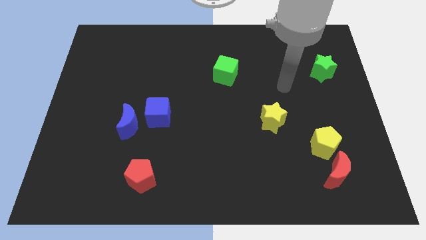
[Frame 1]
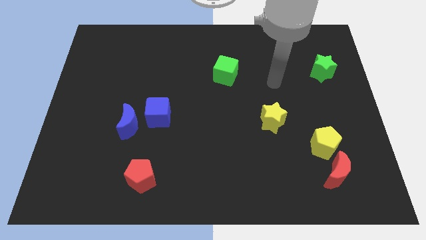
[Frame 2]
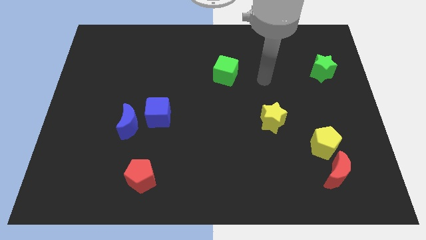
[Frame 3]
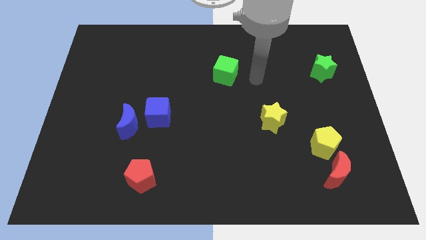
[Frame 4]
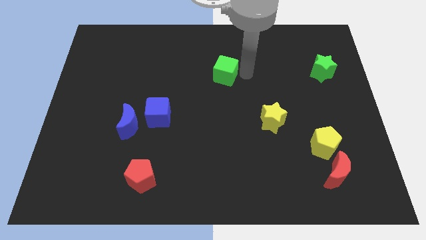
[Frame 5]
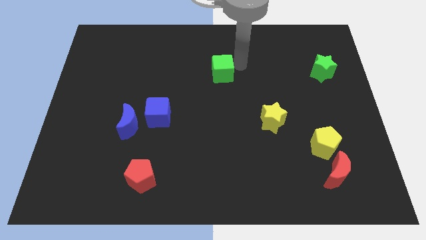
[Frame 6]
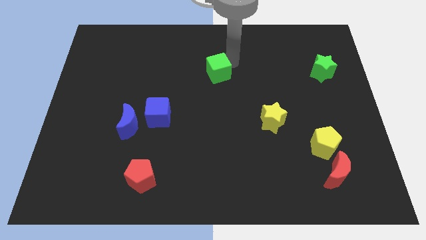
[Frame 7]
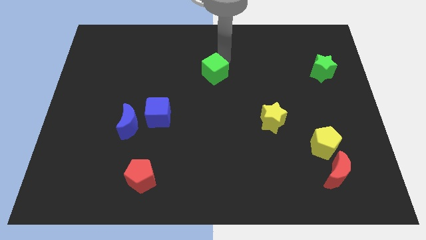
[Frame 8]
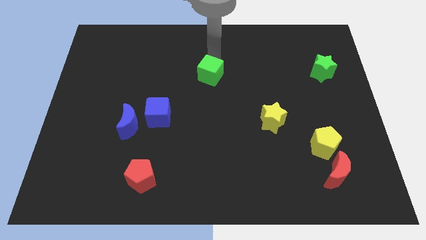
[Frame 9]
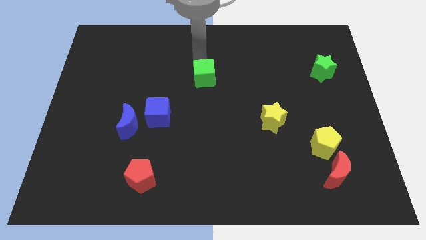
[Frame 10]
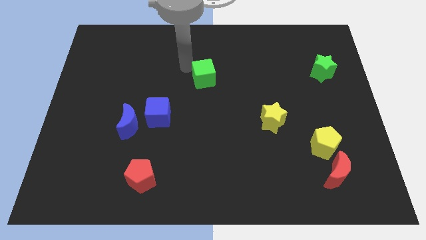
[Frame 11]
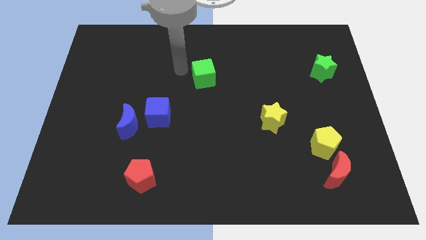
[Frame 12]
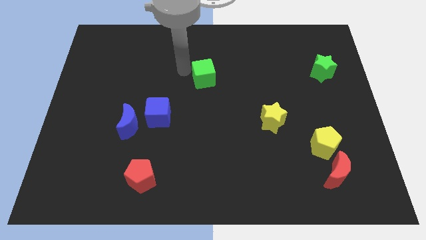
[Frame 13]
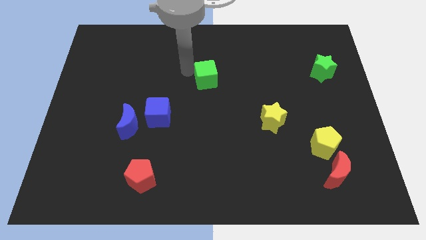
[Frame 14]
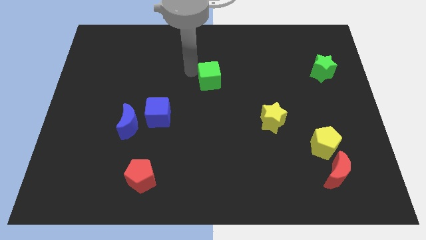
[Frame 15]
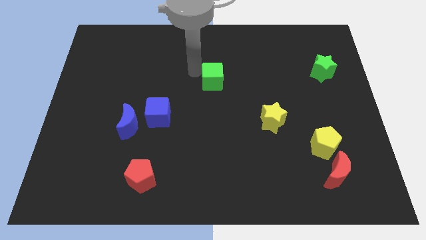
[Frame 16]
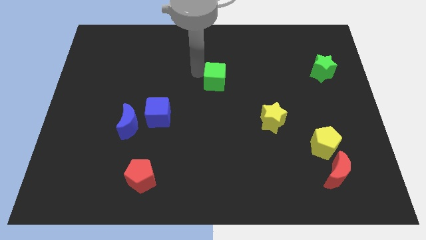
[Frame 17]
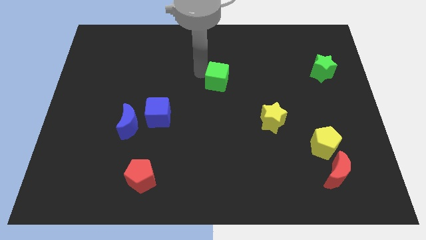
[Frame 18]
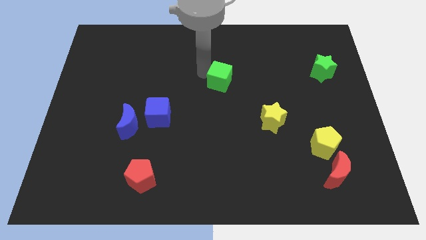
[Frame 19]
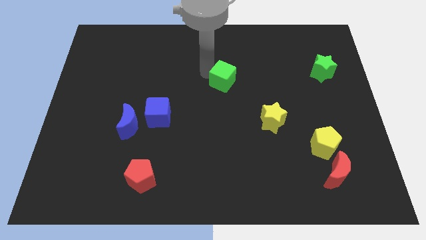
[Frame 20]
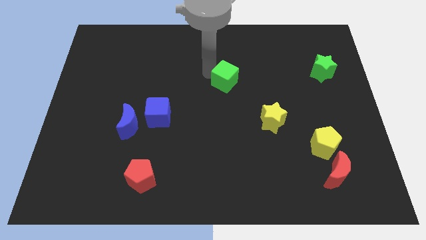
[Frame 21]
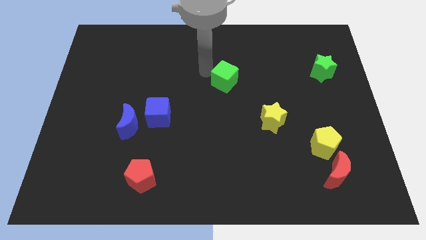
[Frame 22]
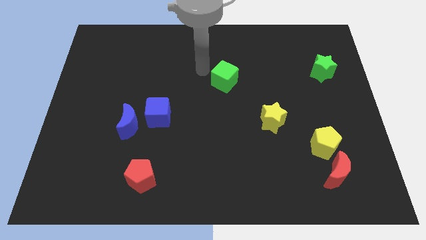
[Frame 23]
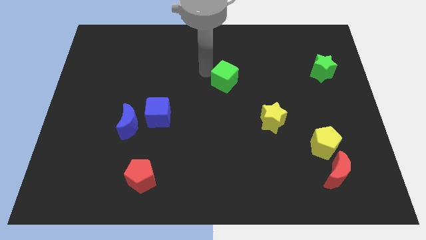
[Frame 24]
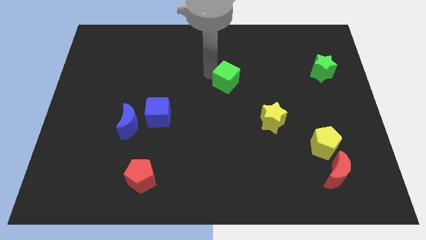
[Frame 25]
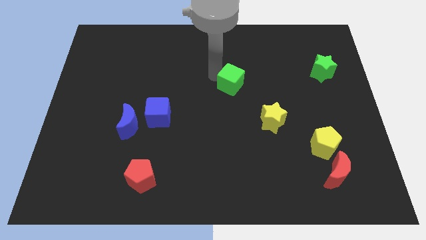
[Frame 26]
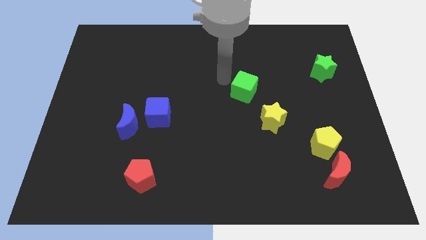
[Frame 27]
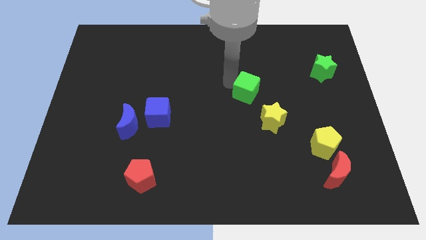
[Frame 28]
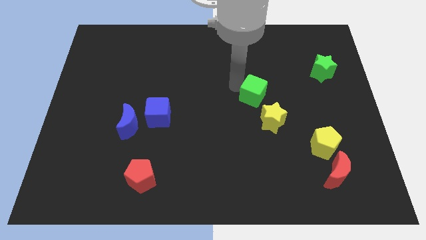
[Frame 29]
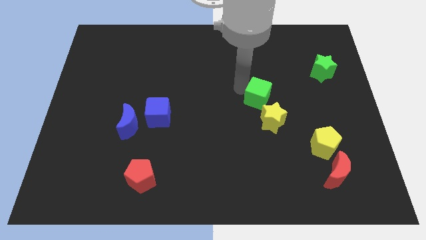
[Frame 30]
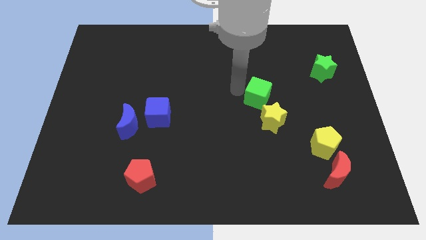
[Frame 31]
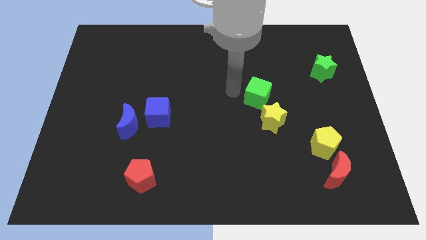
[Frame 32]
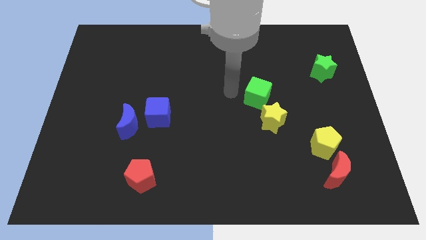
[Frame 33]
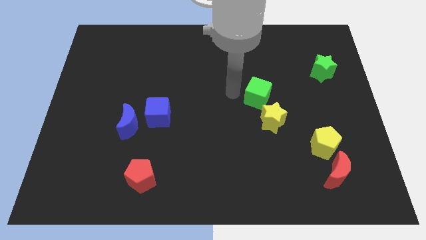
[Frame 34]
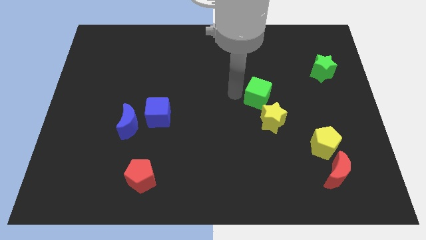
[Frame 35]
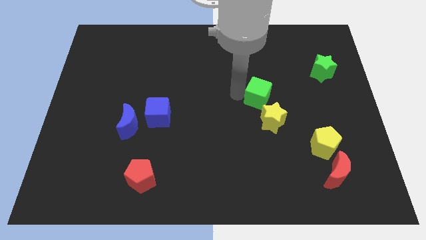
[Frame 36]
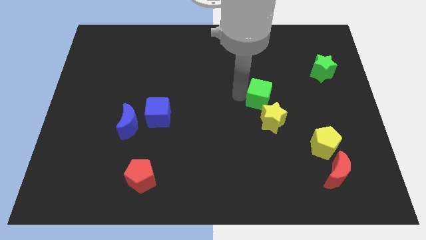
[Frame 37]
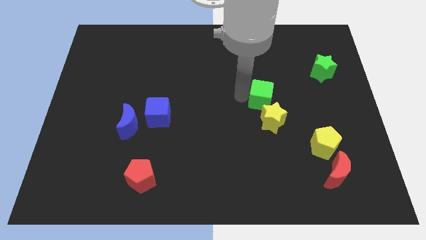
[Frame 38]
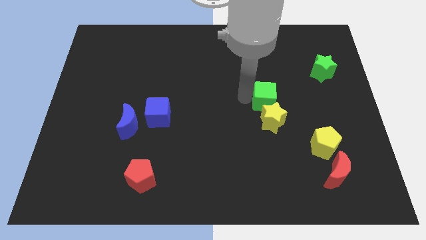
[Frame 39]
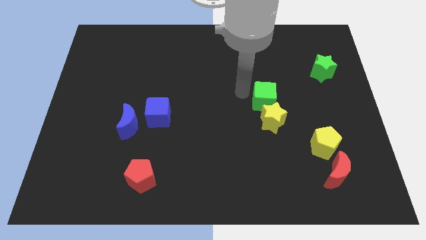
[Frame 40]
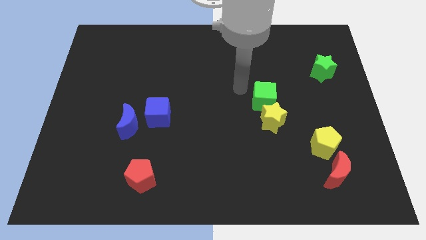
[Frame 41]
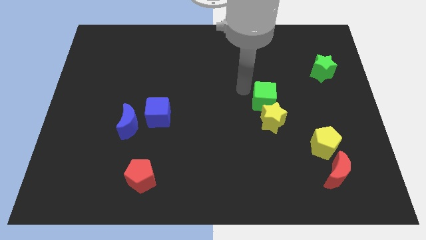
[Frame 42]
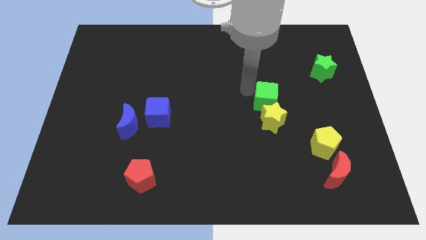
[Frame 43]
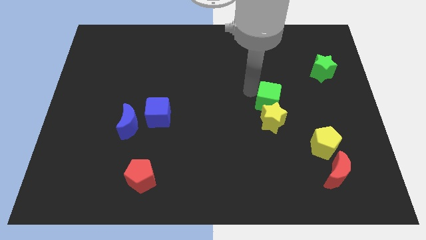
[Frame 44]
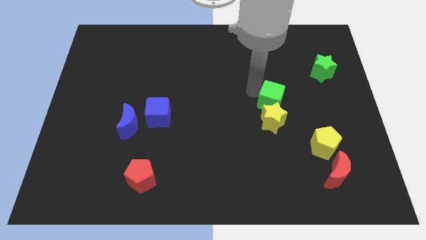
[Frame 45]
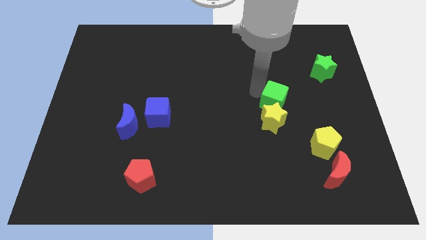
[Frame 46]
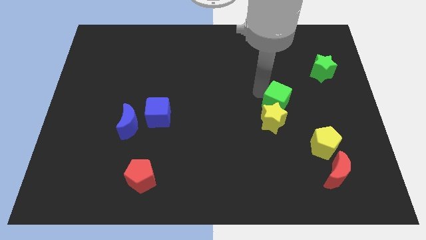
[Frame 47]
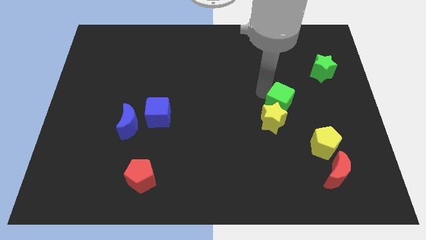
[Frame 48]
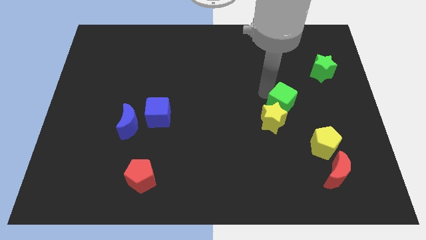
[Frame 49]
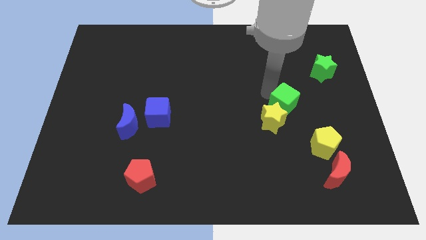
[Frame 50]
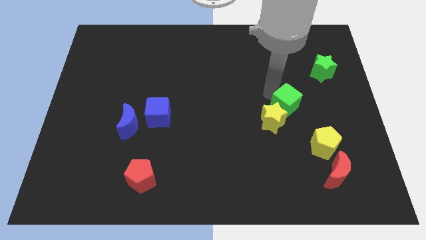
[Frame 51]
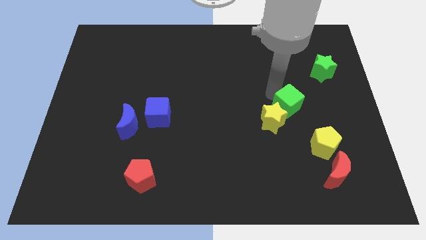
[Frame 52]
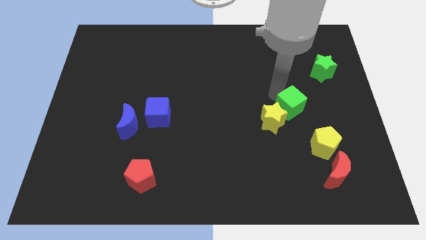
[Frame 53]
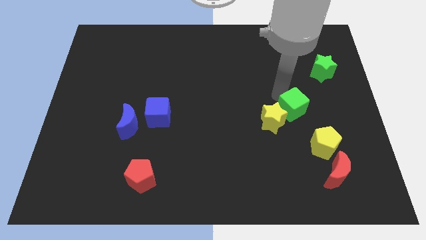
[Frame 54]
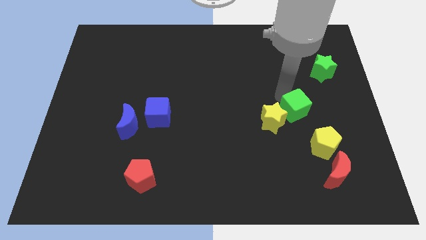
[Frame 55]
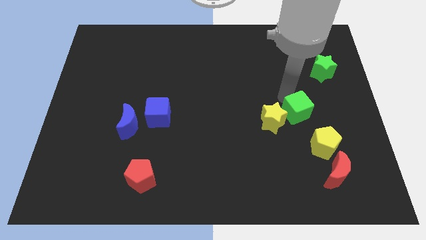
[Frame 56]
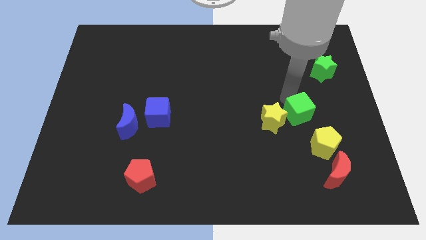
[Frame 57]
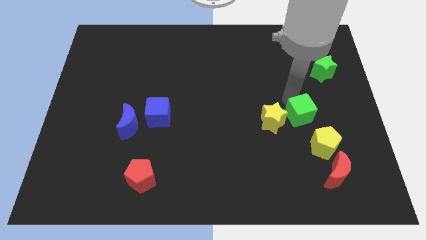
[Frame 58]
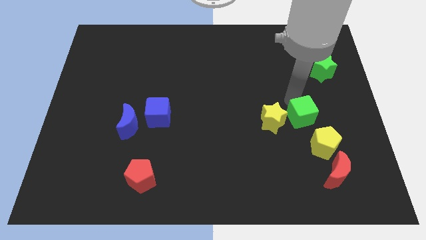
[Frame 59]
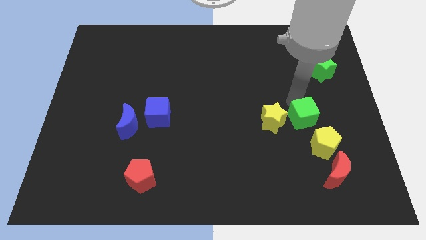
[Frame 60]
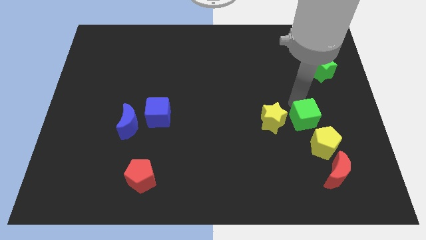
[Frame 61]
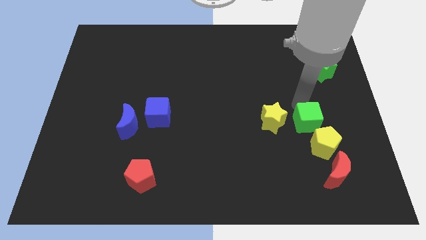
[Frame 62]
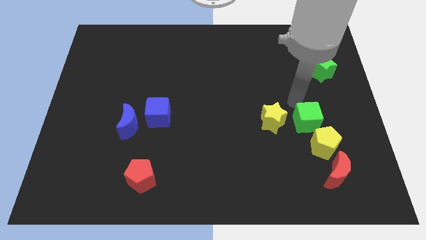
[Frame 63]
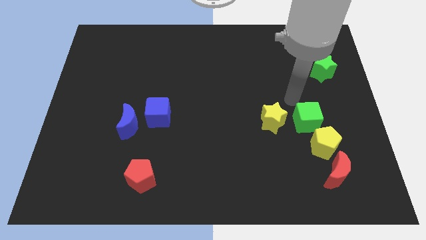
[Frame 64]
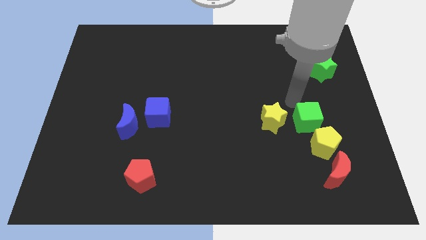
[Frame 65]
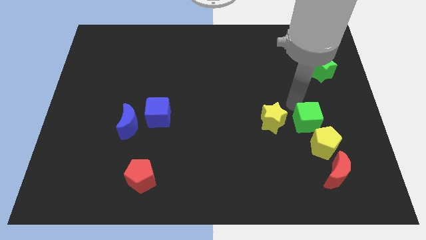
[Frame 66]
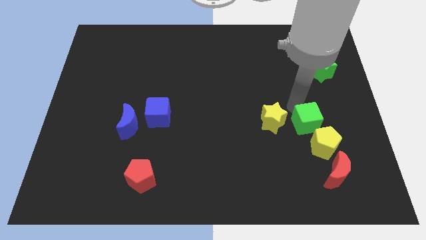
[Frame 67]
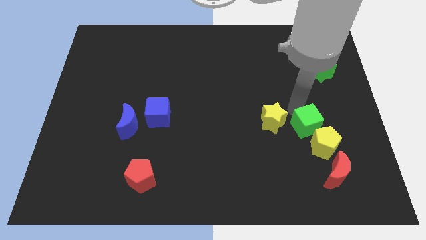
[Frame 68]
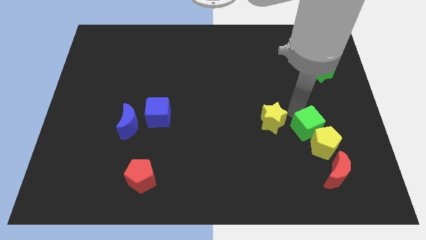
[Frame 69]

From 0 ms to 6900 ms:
push the green cube to the yellow pentagon
